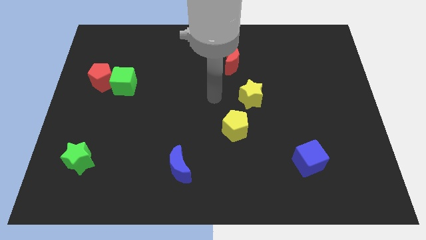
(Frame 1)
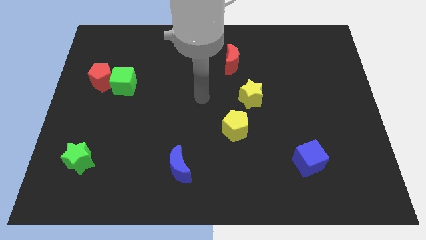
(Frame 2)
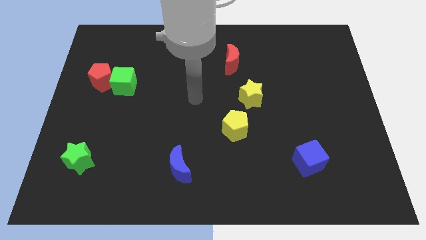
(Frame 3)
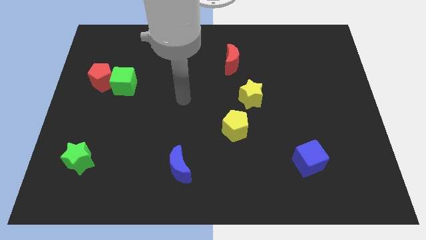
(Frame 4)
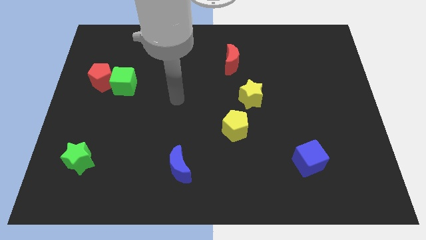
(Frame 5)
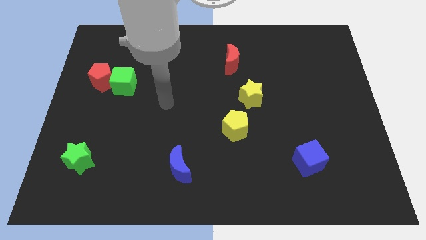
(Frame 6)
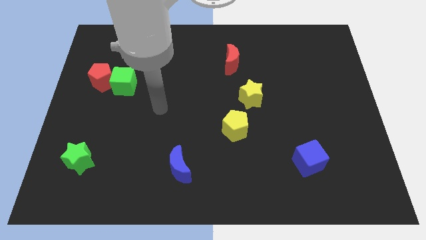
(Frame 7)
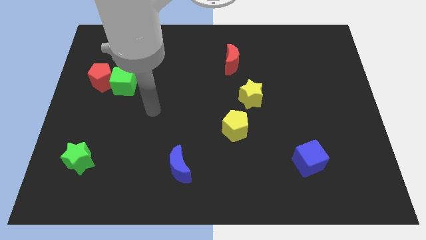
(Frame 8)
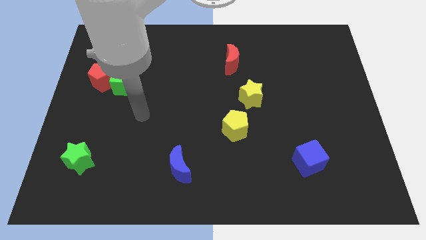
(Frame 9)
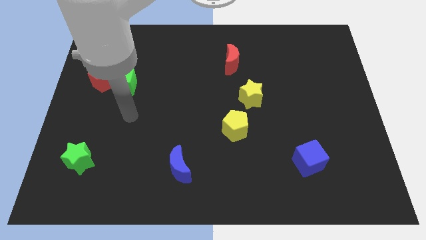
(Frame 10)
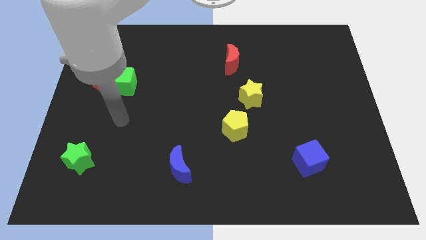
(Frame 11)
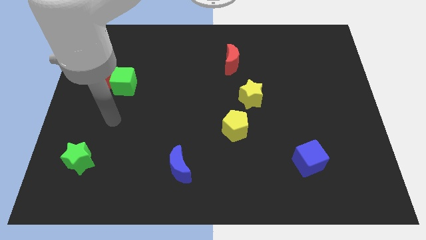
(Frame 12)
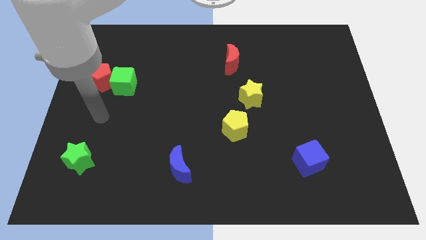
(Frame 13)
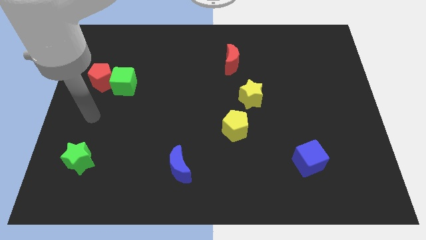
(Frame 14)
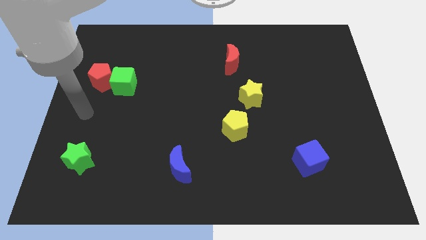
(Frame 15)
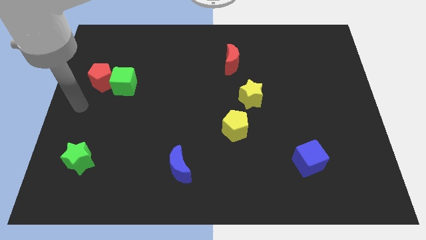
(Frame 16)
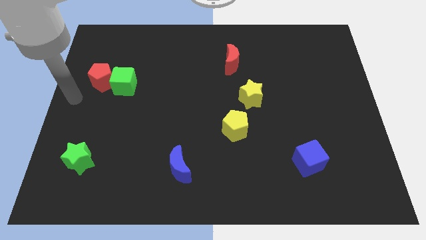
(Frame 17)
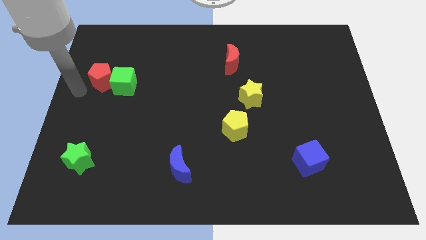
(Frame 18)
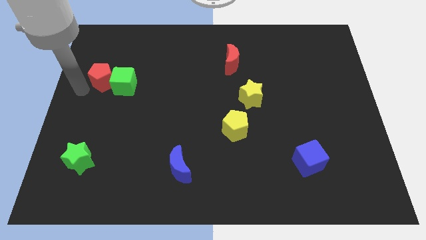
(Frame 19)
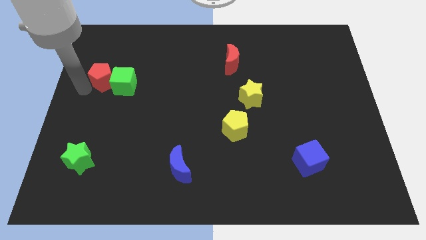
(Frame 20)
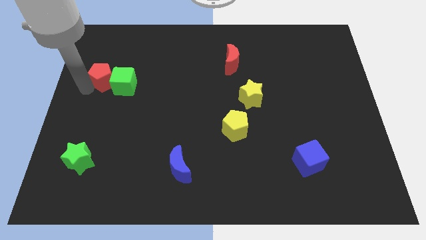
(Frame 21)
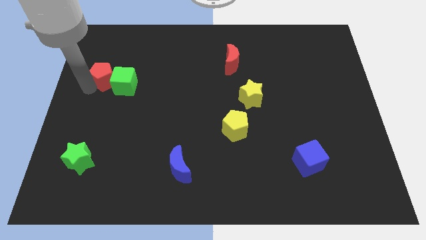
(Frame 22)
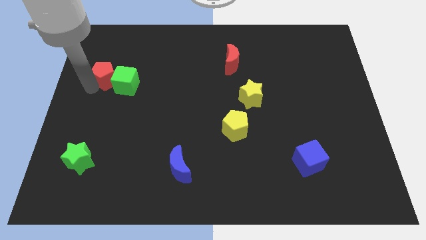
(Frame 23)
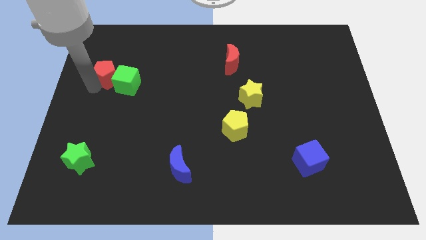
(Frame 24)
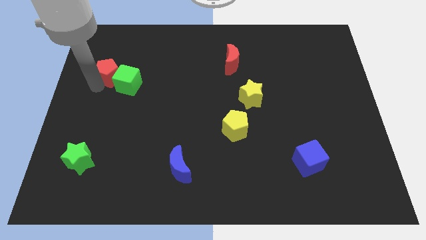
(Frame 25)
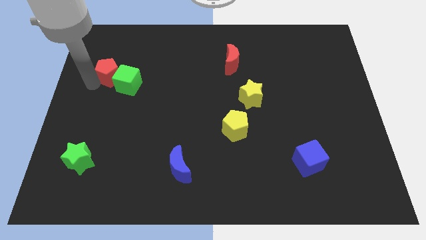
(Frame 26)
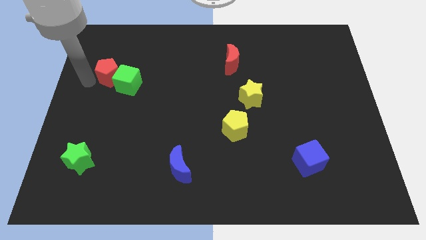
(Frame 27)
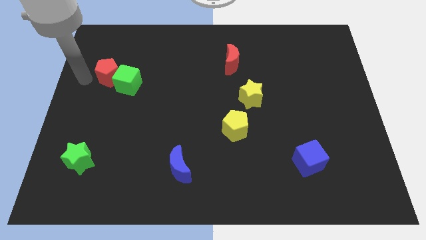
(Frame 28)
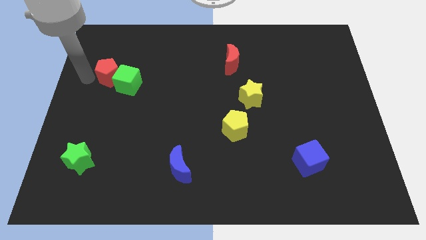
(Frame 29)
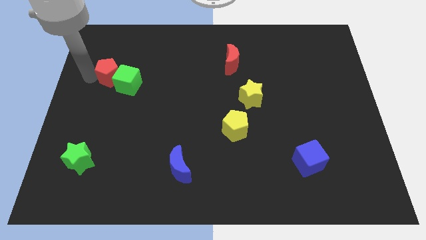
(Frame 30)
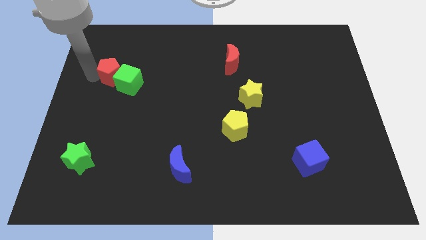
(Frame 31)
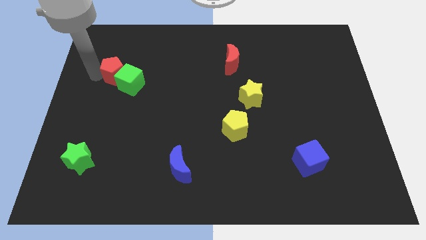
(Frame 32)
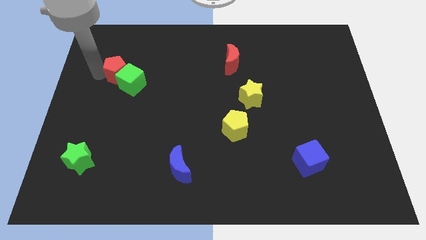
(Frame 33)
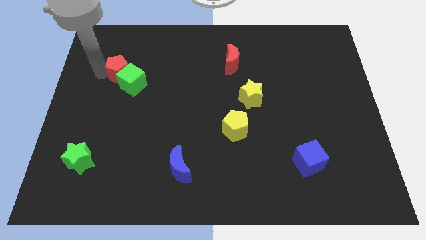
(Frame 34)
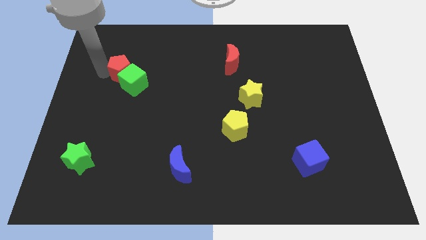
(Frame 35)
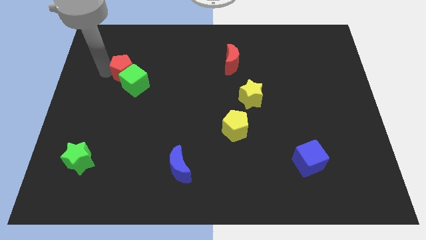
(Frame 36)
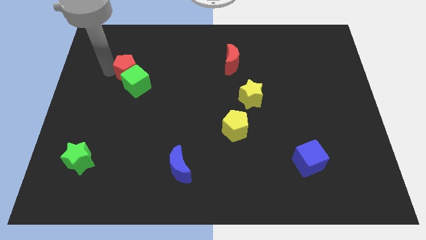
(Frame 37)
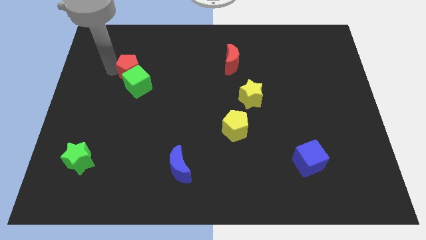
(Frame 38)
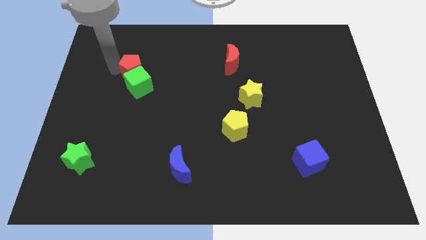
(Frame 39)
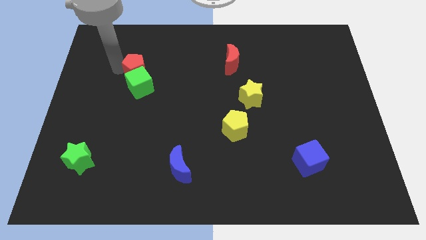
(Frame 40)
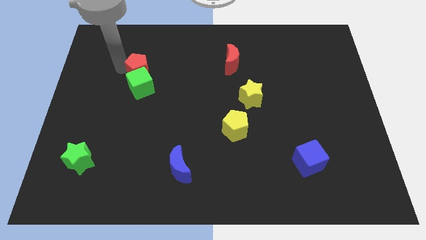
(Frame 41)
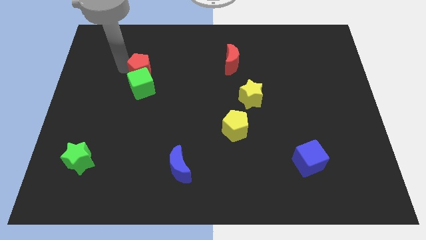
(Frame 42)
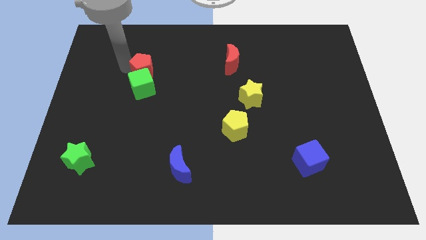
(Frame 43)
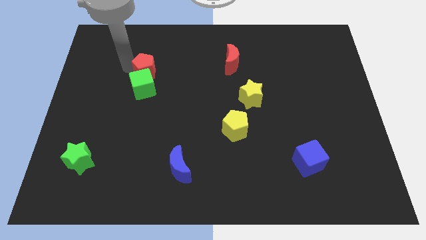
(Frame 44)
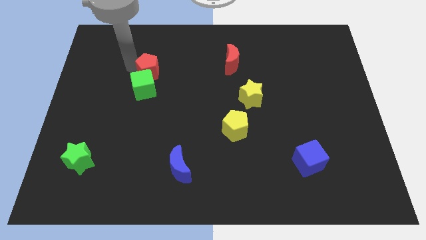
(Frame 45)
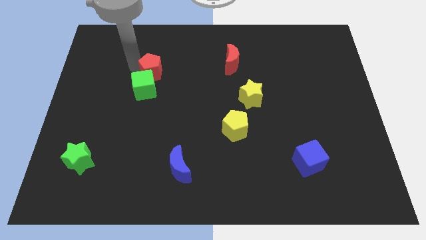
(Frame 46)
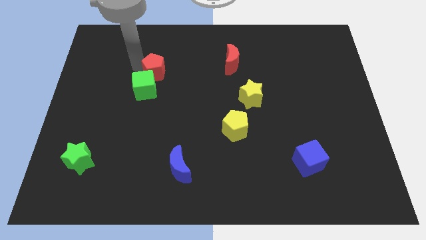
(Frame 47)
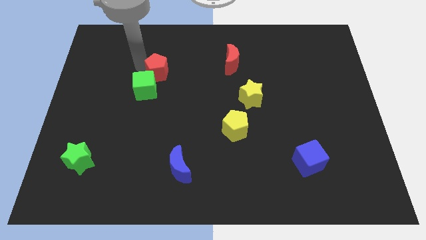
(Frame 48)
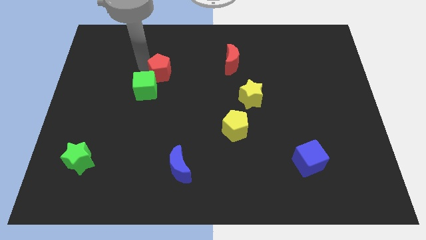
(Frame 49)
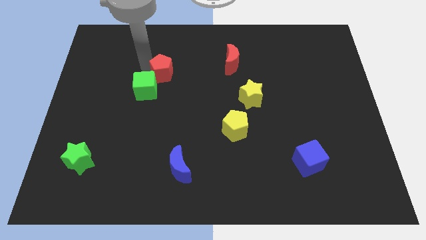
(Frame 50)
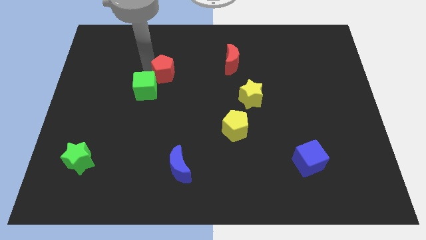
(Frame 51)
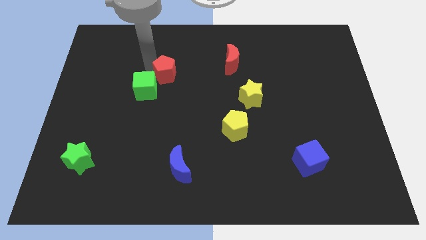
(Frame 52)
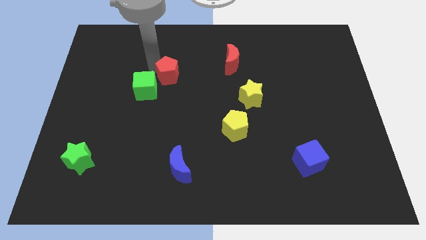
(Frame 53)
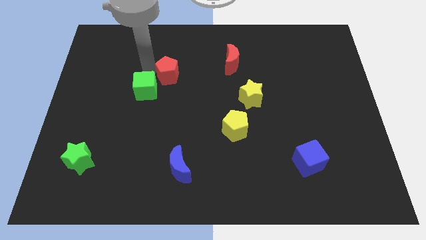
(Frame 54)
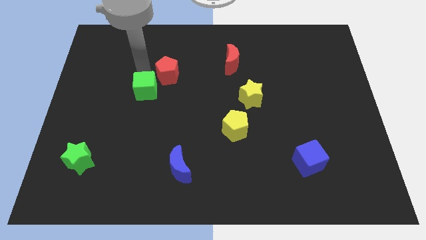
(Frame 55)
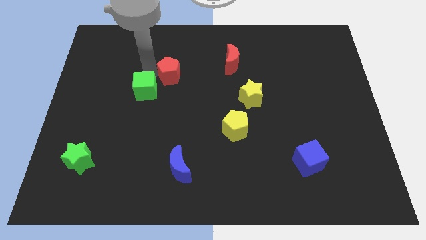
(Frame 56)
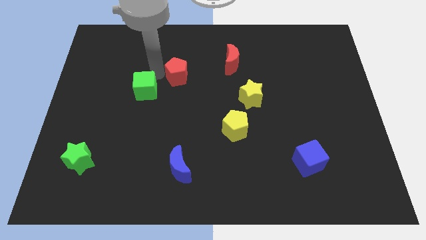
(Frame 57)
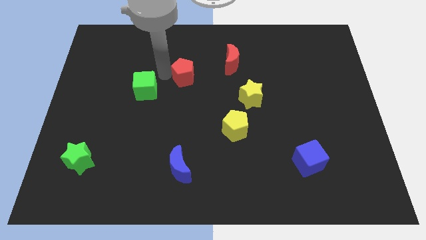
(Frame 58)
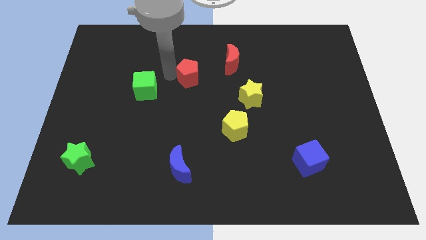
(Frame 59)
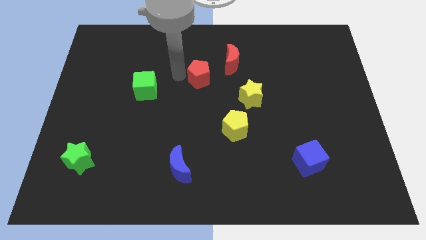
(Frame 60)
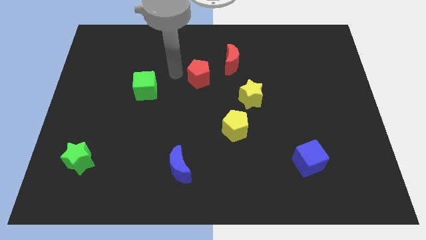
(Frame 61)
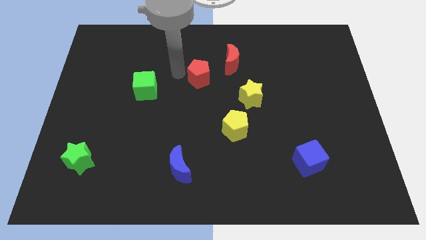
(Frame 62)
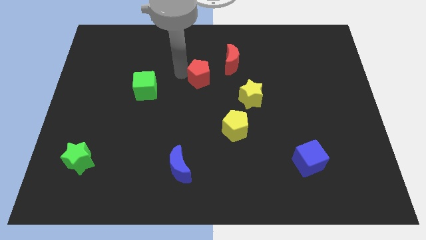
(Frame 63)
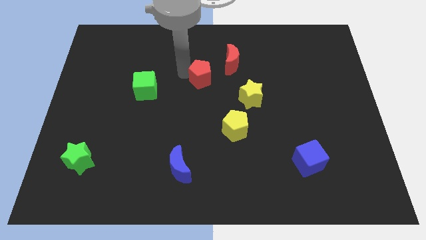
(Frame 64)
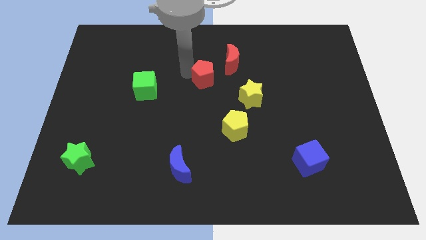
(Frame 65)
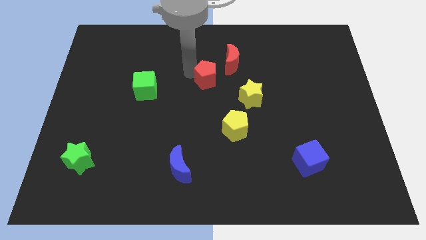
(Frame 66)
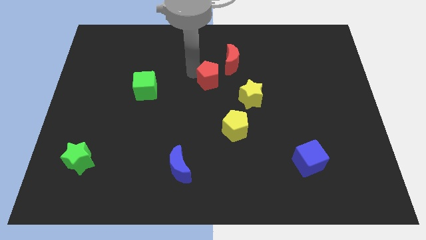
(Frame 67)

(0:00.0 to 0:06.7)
move the red pentagon to the top left side of the yellow star
